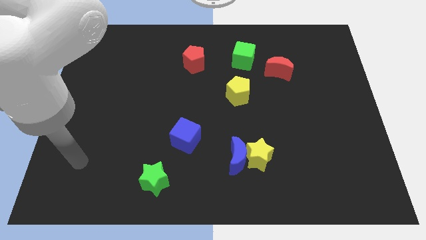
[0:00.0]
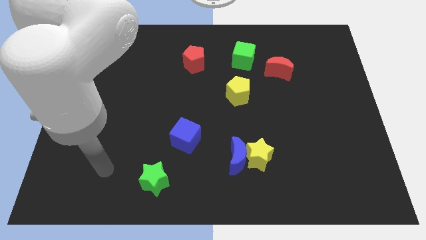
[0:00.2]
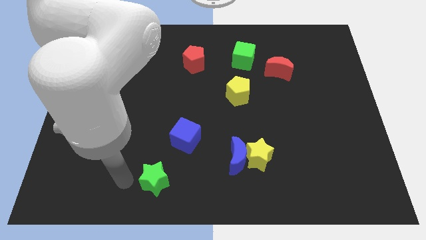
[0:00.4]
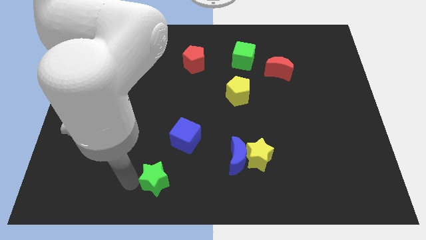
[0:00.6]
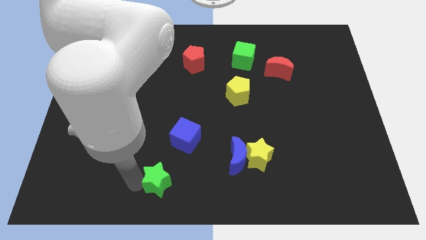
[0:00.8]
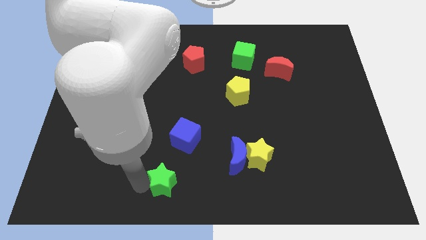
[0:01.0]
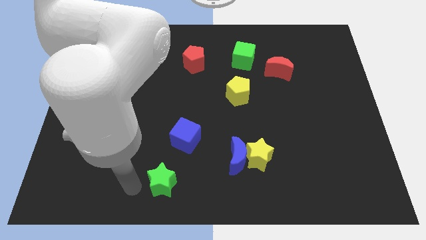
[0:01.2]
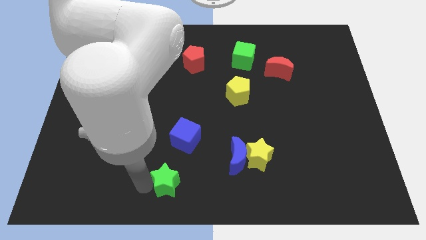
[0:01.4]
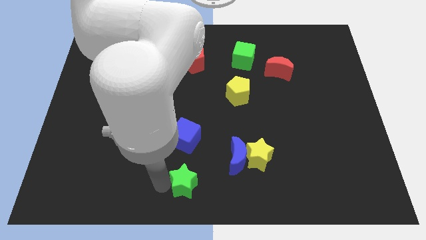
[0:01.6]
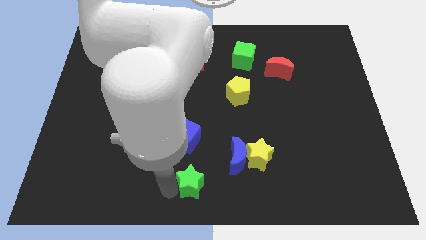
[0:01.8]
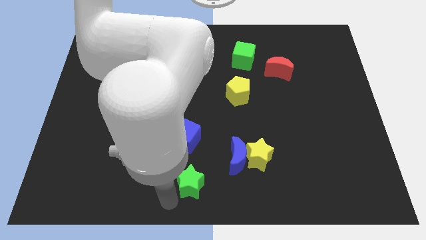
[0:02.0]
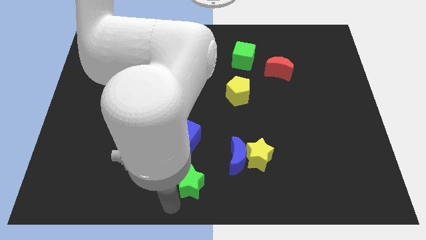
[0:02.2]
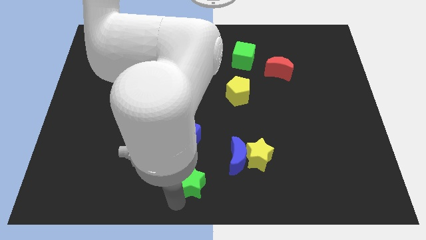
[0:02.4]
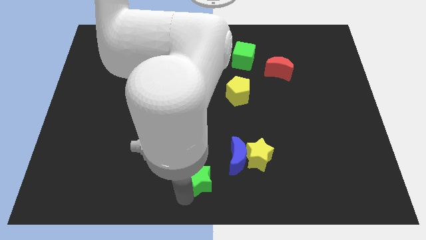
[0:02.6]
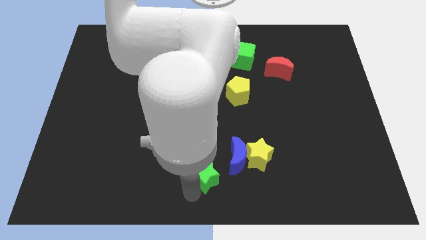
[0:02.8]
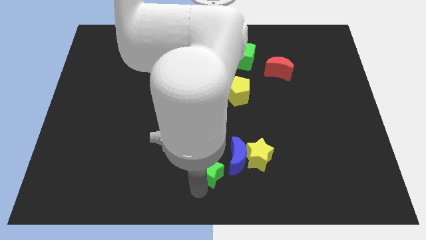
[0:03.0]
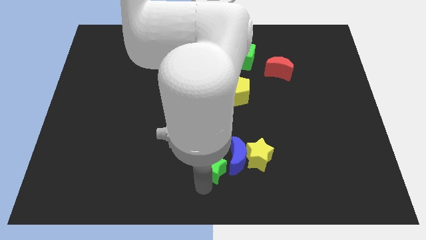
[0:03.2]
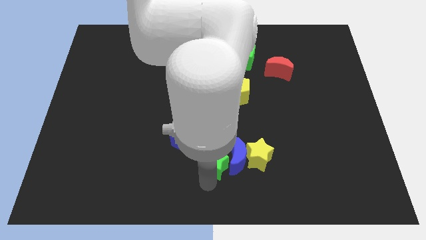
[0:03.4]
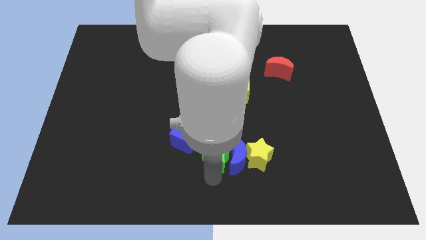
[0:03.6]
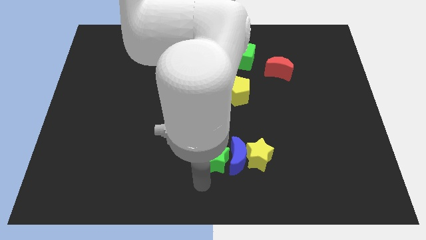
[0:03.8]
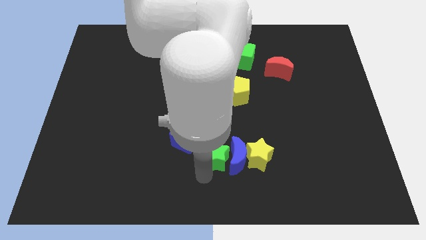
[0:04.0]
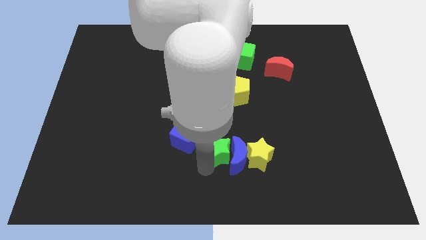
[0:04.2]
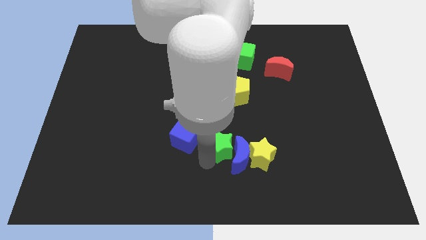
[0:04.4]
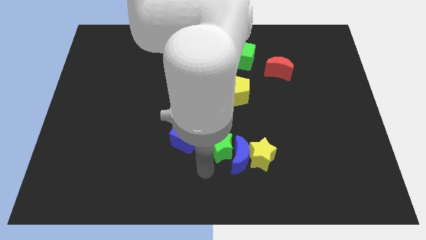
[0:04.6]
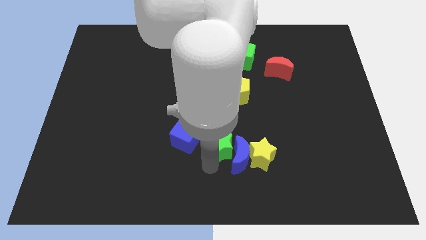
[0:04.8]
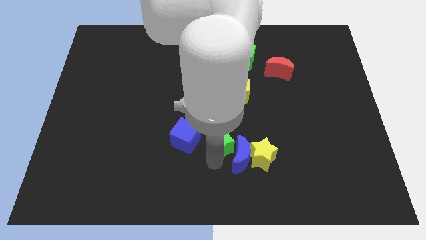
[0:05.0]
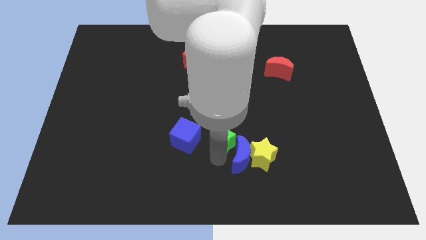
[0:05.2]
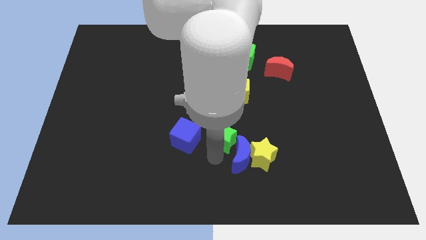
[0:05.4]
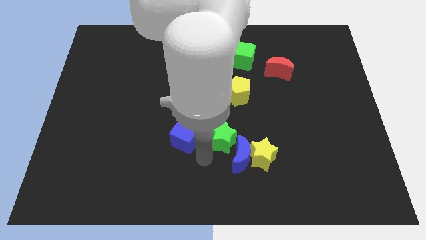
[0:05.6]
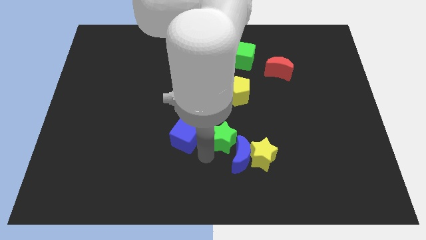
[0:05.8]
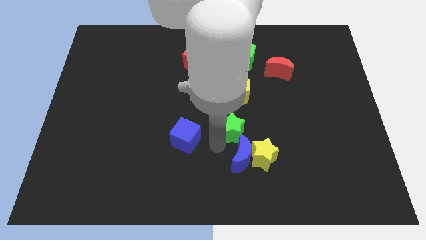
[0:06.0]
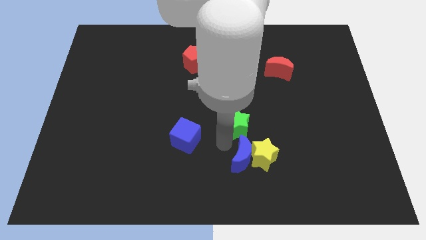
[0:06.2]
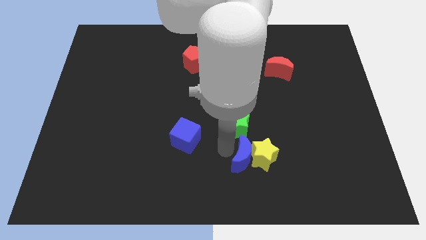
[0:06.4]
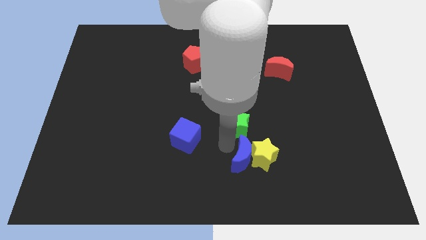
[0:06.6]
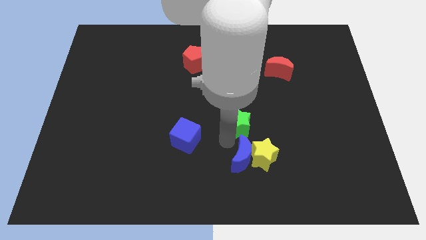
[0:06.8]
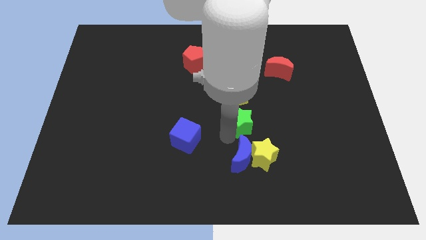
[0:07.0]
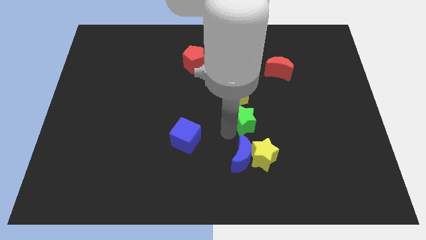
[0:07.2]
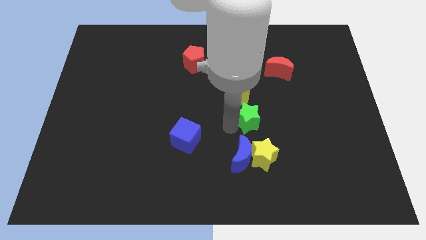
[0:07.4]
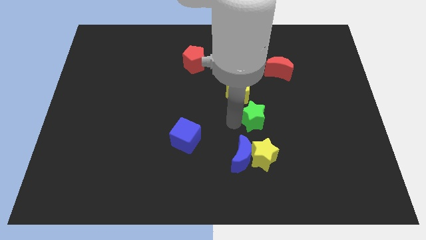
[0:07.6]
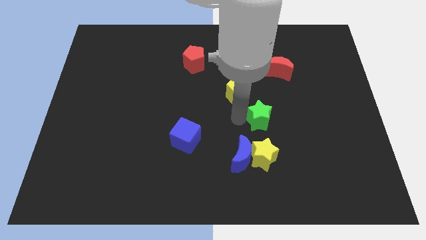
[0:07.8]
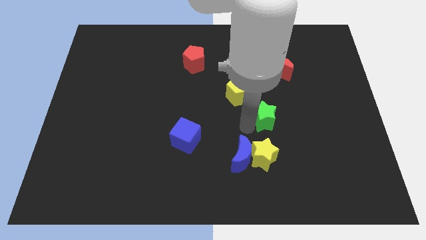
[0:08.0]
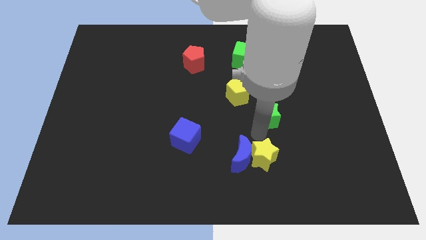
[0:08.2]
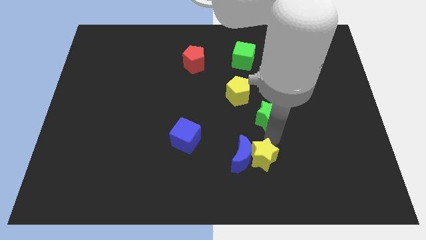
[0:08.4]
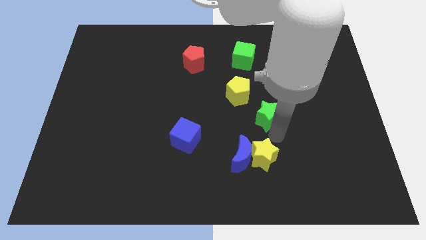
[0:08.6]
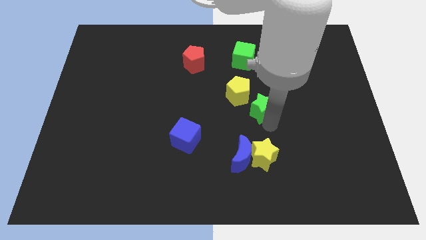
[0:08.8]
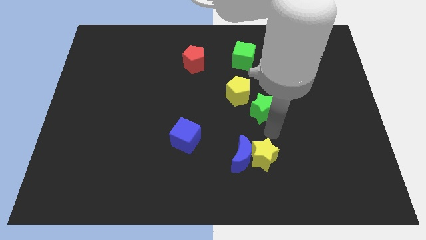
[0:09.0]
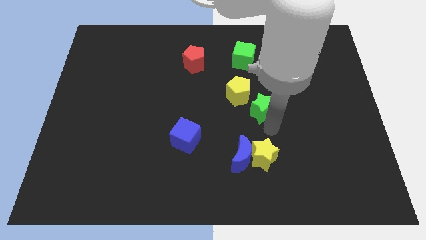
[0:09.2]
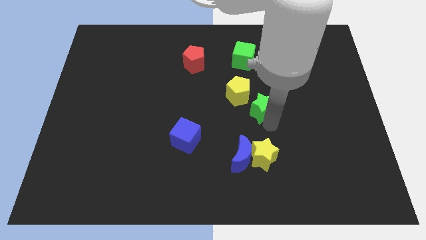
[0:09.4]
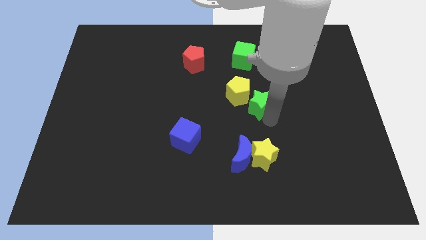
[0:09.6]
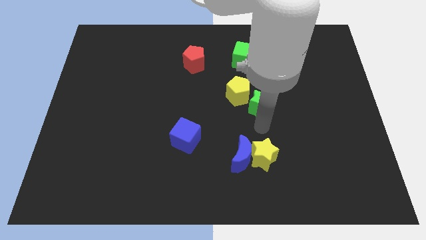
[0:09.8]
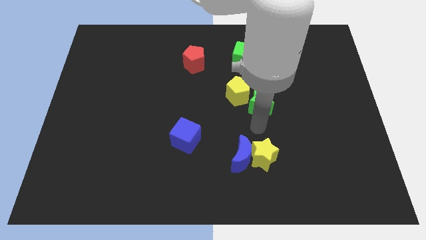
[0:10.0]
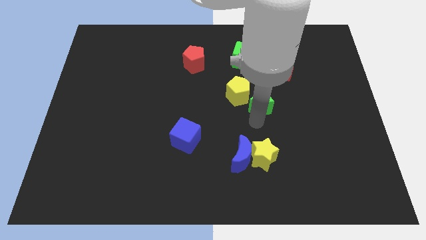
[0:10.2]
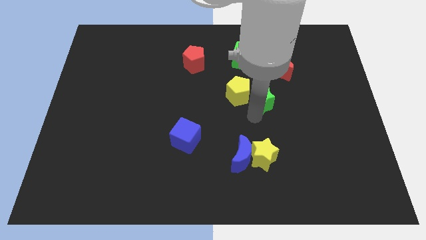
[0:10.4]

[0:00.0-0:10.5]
move the green star to the bottom left of the red moon

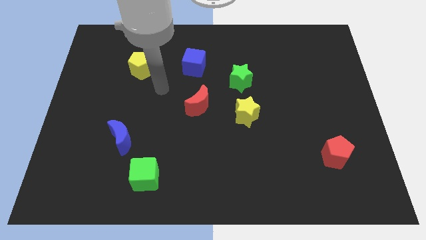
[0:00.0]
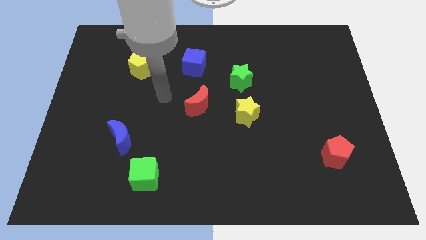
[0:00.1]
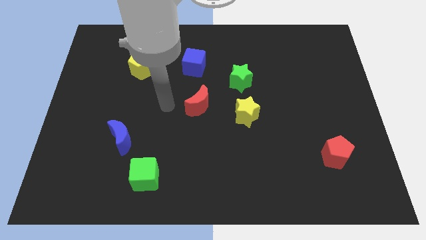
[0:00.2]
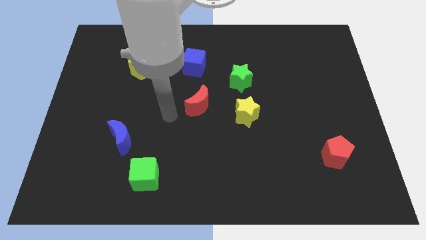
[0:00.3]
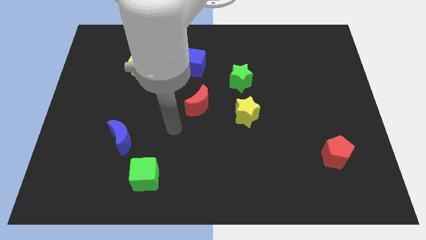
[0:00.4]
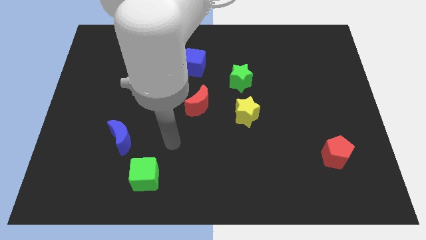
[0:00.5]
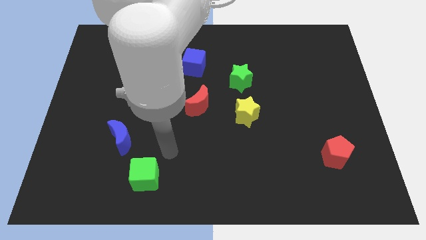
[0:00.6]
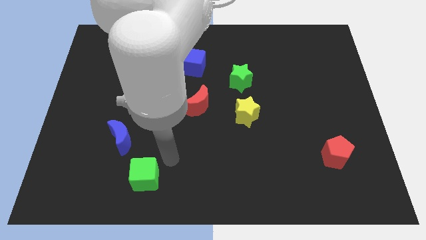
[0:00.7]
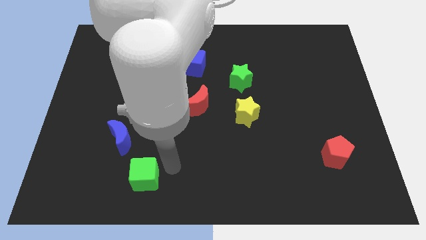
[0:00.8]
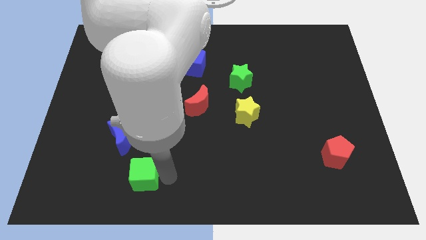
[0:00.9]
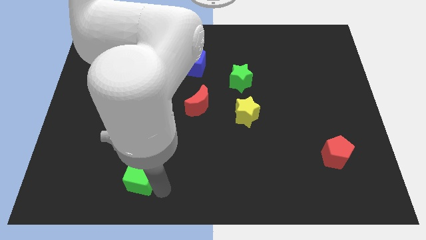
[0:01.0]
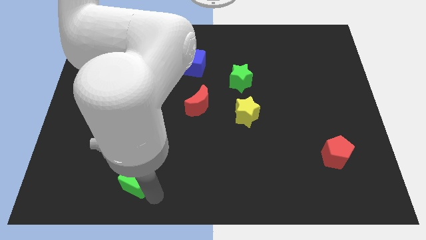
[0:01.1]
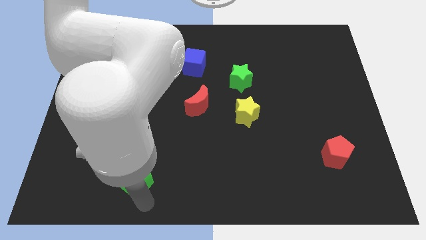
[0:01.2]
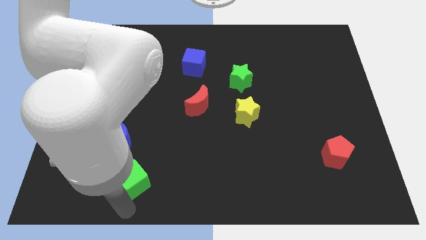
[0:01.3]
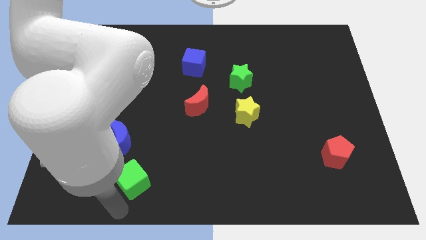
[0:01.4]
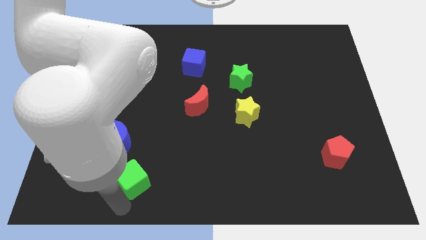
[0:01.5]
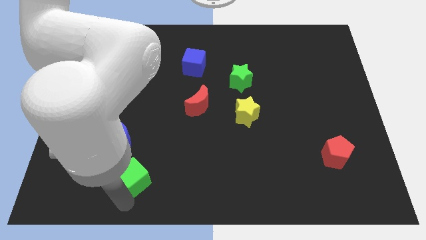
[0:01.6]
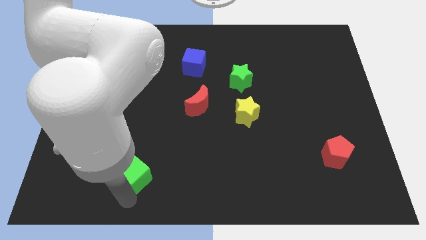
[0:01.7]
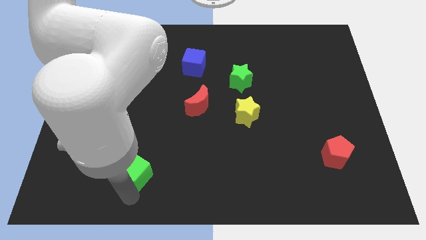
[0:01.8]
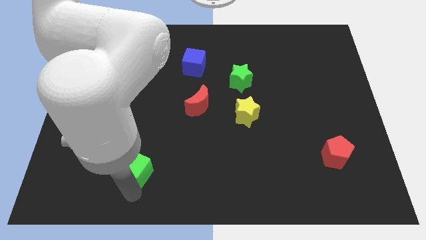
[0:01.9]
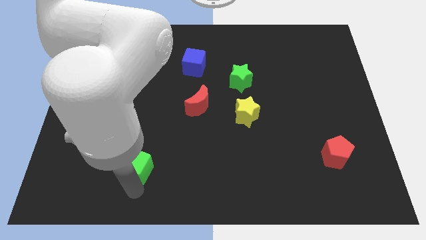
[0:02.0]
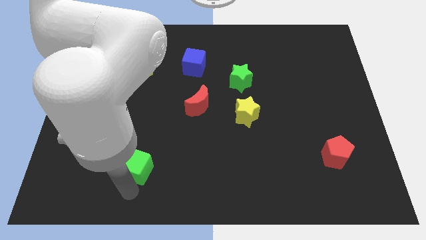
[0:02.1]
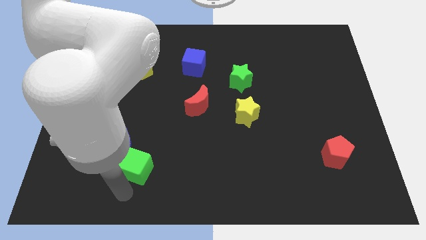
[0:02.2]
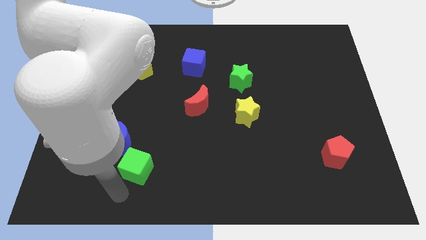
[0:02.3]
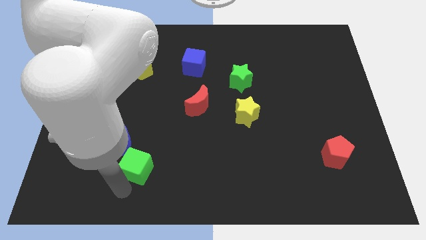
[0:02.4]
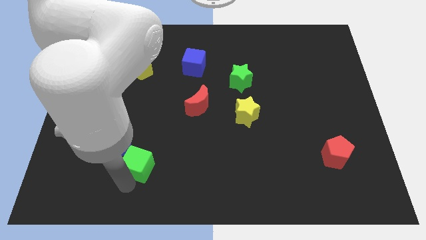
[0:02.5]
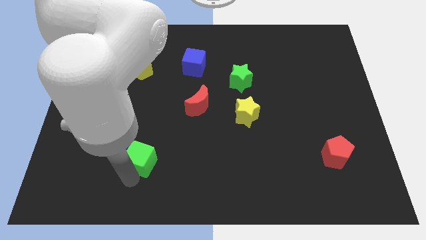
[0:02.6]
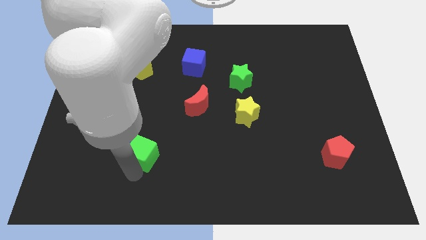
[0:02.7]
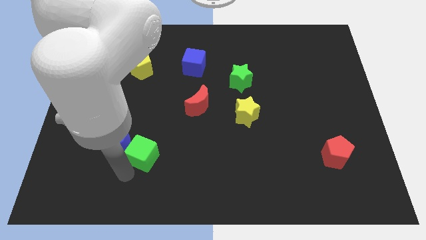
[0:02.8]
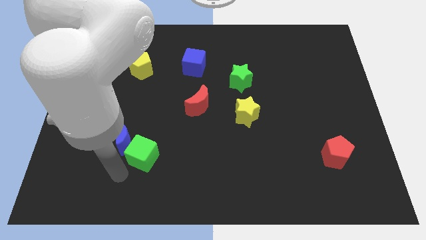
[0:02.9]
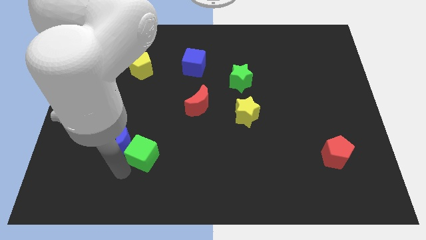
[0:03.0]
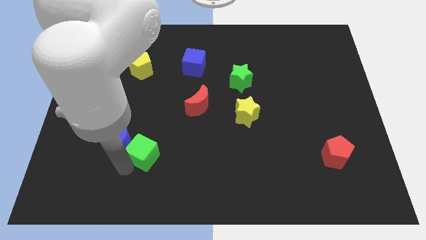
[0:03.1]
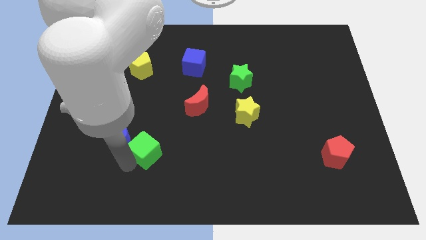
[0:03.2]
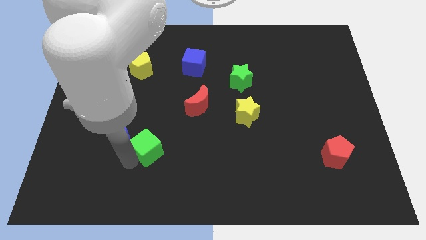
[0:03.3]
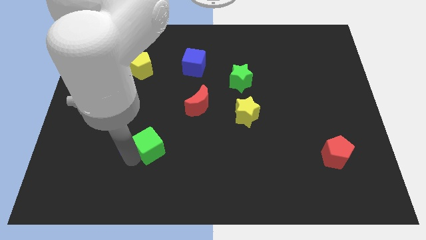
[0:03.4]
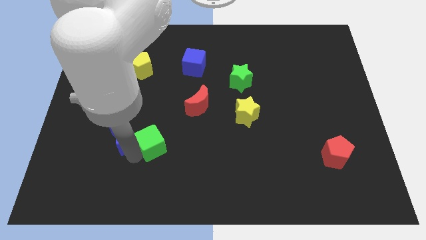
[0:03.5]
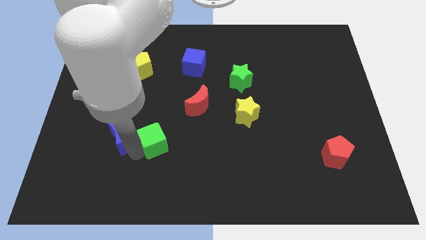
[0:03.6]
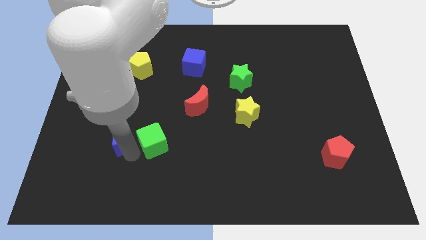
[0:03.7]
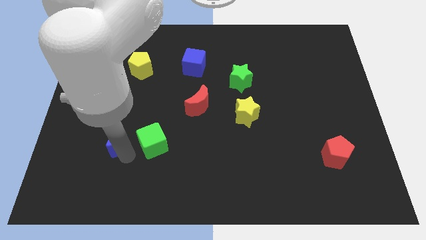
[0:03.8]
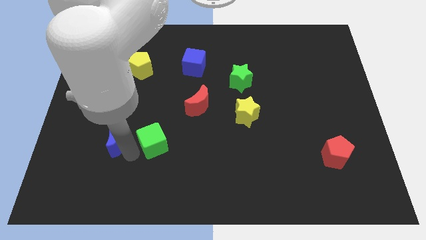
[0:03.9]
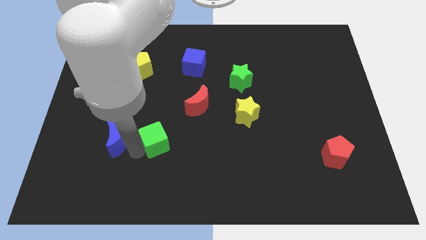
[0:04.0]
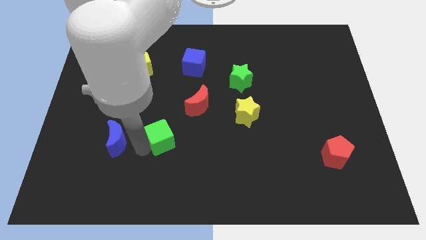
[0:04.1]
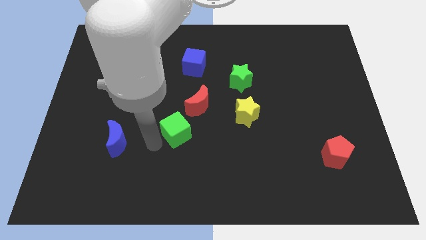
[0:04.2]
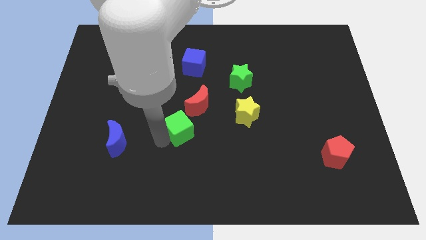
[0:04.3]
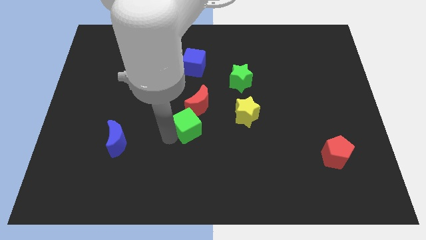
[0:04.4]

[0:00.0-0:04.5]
slide the green cube left of the yellow star
